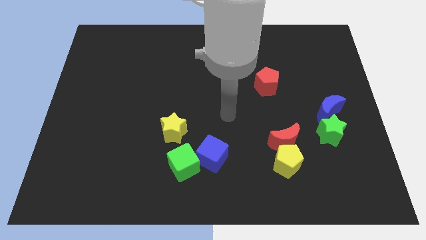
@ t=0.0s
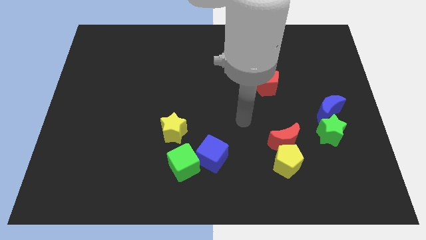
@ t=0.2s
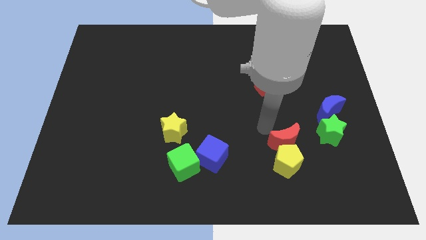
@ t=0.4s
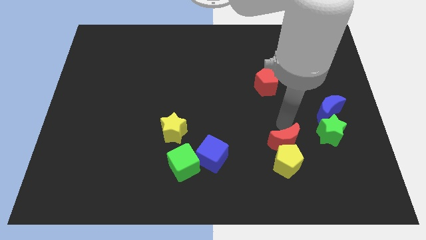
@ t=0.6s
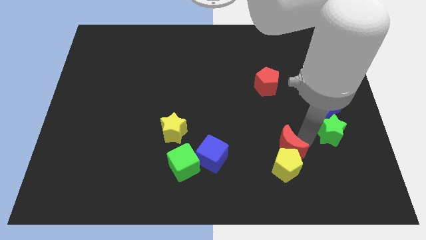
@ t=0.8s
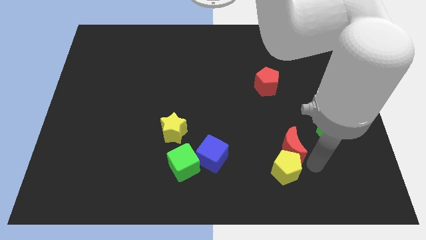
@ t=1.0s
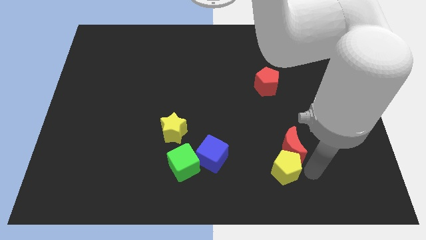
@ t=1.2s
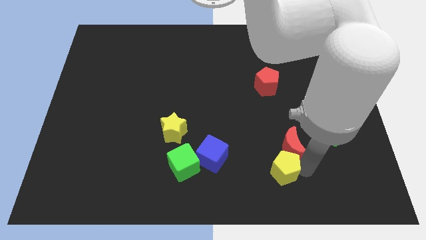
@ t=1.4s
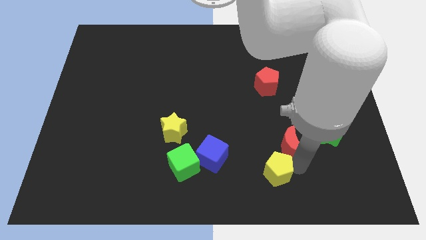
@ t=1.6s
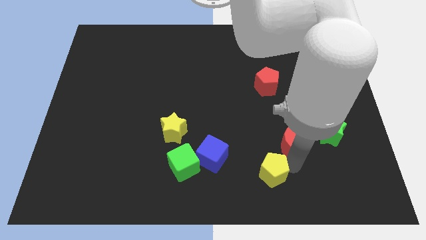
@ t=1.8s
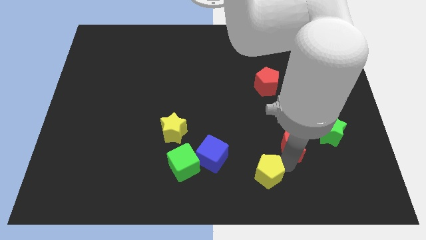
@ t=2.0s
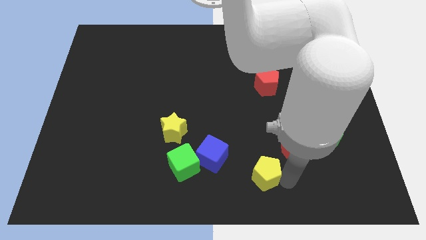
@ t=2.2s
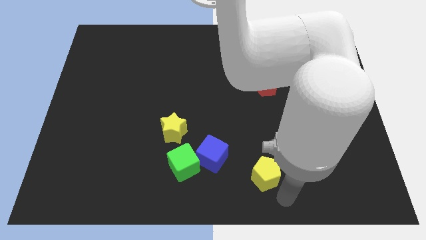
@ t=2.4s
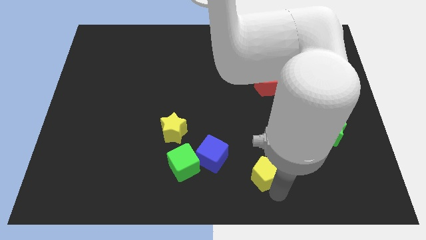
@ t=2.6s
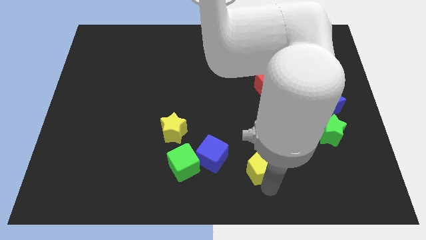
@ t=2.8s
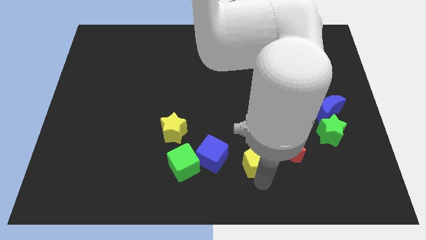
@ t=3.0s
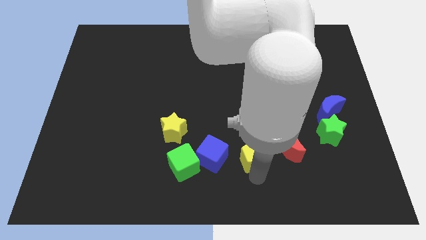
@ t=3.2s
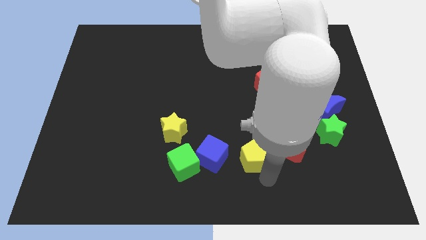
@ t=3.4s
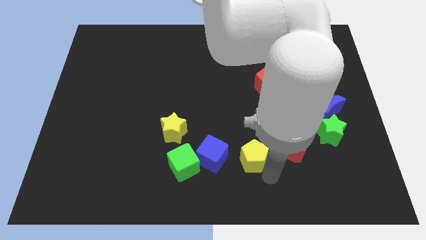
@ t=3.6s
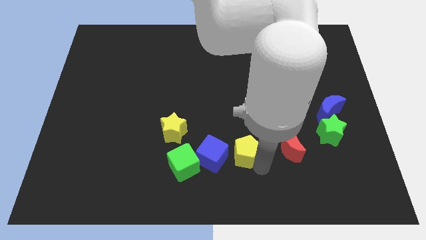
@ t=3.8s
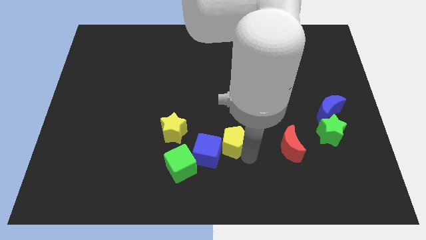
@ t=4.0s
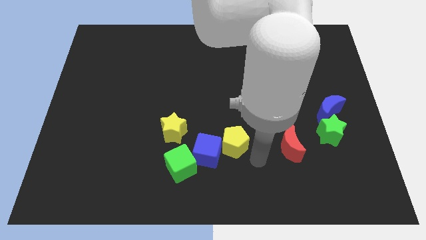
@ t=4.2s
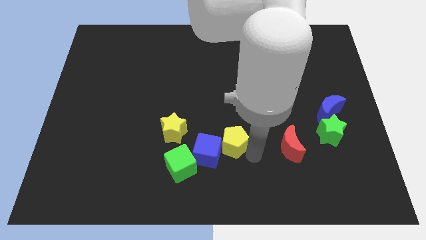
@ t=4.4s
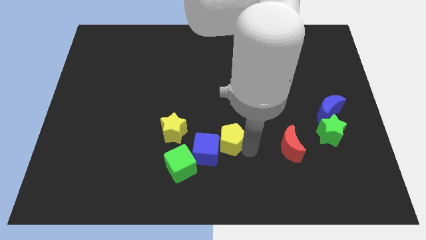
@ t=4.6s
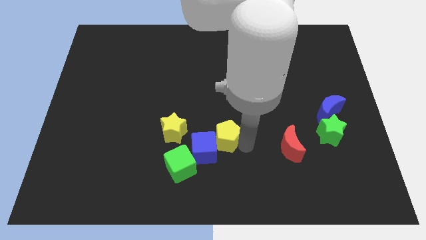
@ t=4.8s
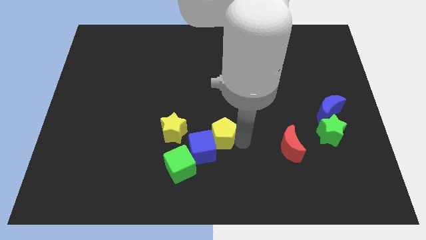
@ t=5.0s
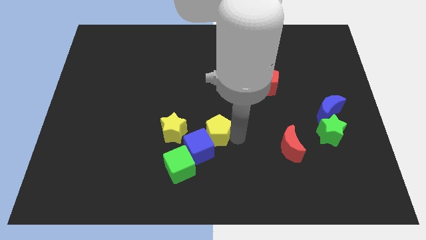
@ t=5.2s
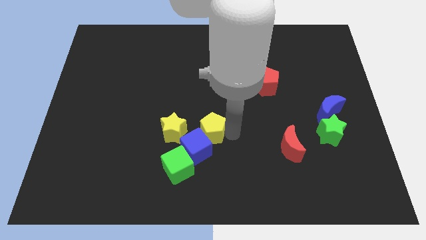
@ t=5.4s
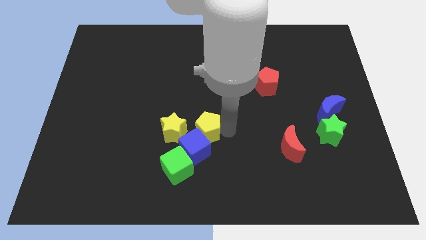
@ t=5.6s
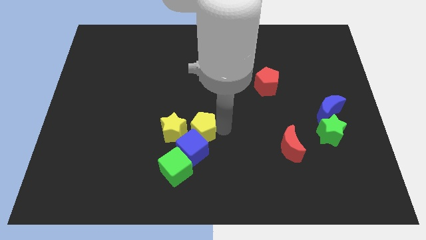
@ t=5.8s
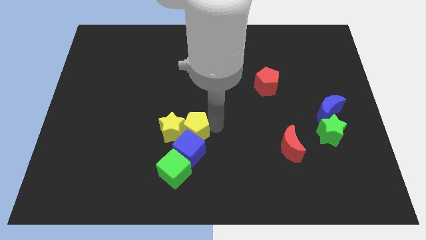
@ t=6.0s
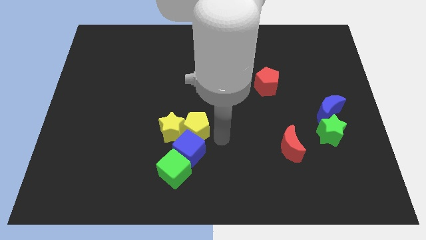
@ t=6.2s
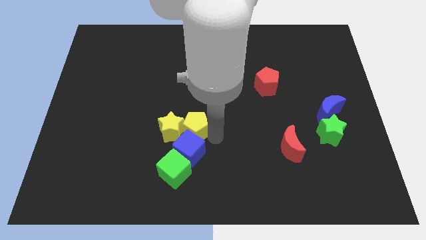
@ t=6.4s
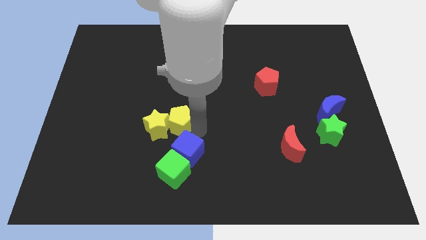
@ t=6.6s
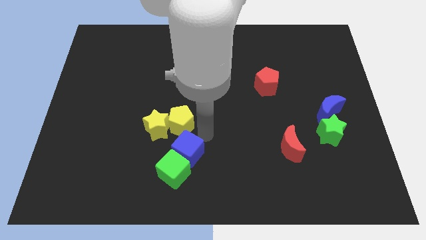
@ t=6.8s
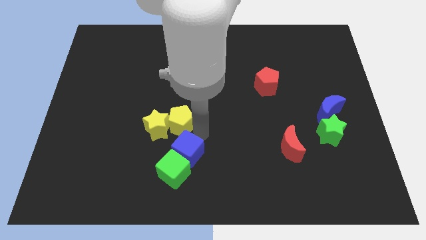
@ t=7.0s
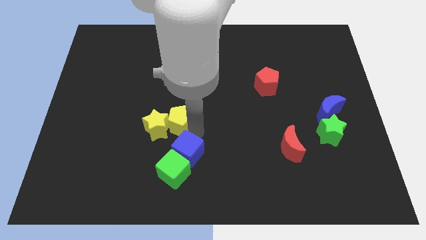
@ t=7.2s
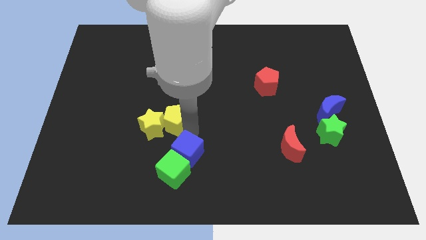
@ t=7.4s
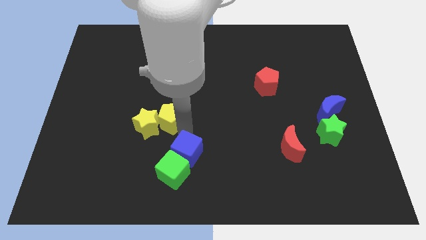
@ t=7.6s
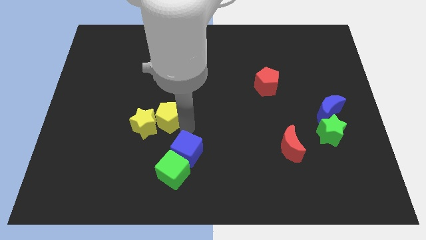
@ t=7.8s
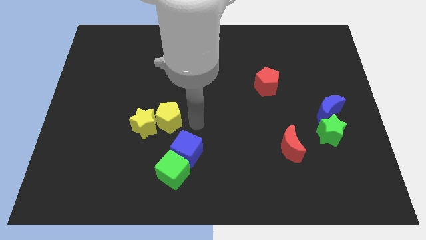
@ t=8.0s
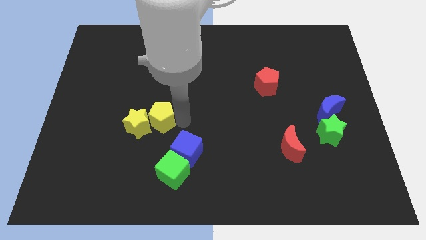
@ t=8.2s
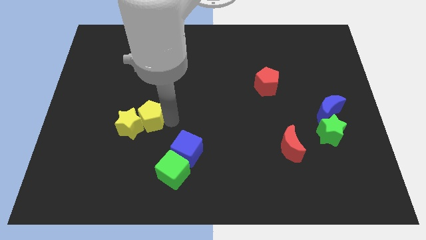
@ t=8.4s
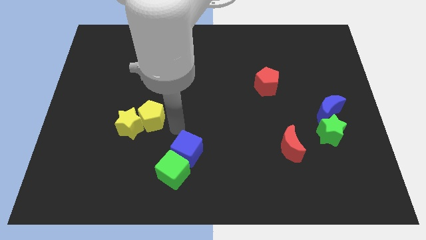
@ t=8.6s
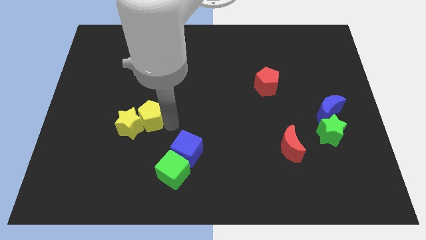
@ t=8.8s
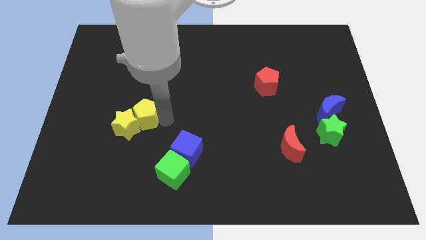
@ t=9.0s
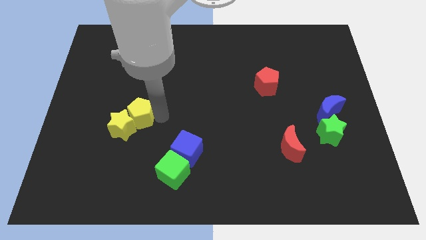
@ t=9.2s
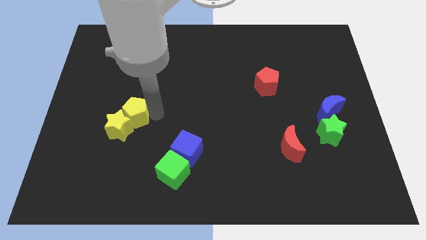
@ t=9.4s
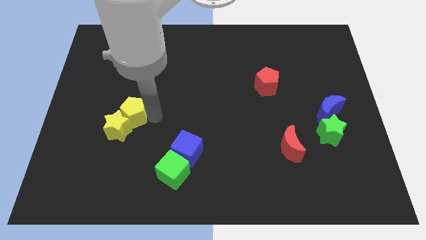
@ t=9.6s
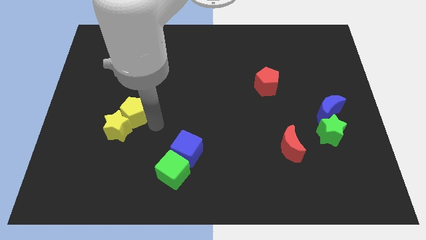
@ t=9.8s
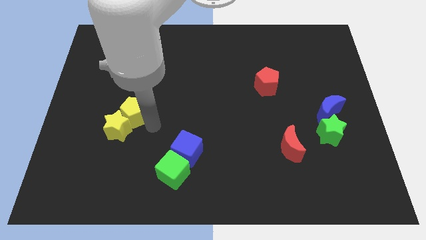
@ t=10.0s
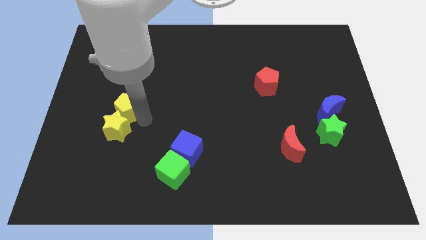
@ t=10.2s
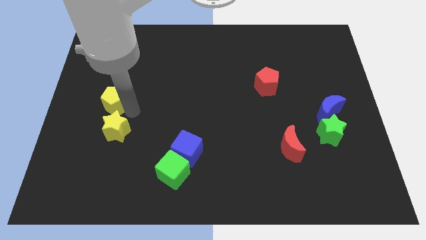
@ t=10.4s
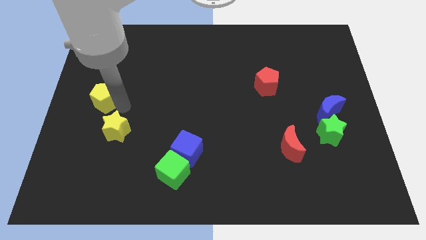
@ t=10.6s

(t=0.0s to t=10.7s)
put the yellow pentagon to the center left

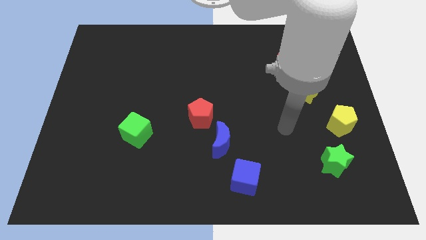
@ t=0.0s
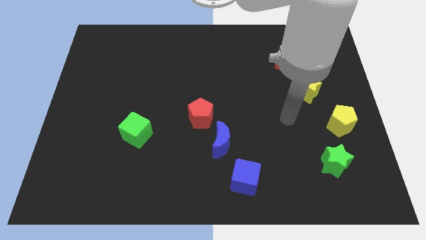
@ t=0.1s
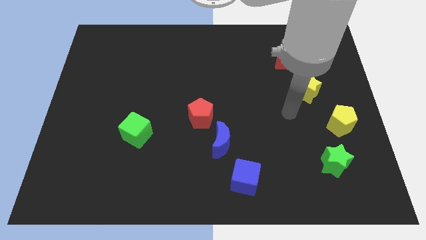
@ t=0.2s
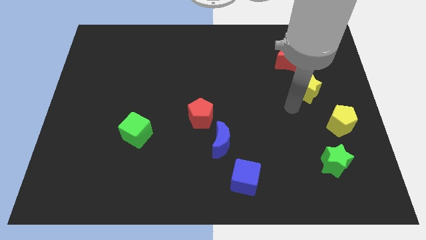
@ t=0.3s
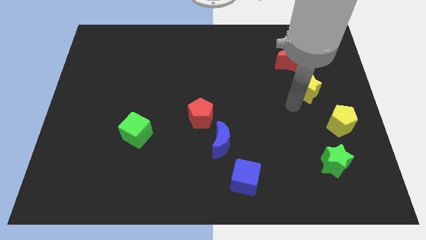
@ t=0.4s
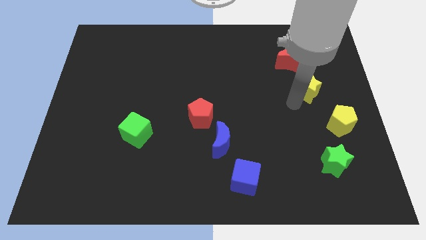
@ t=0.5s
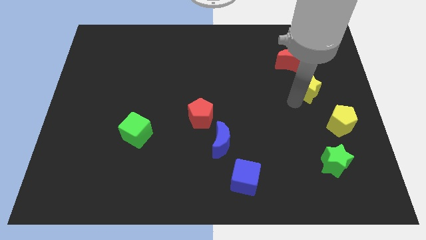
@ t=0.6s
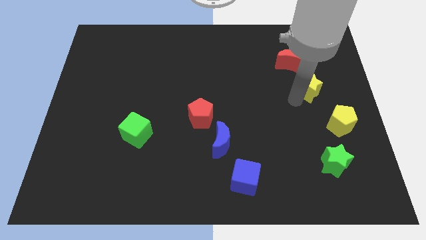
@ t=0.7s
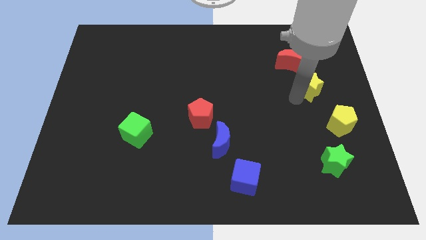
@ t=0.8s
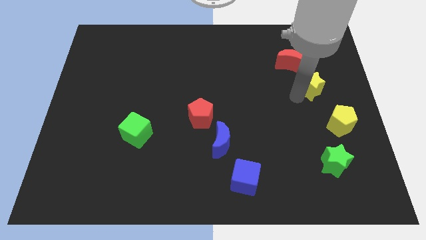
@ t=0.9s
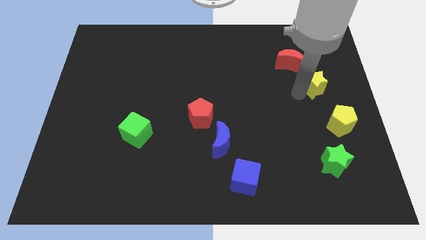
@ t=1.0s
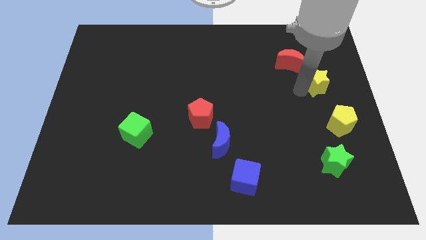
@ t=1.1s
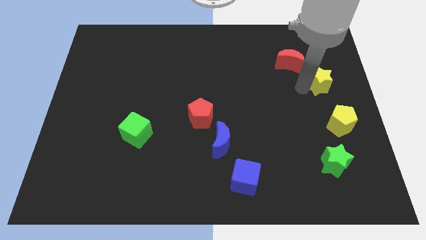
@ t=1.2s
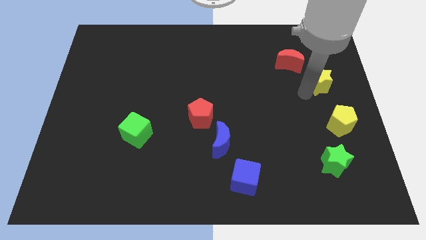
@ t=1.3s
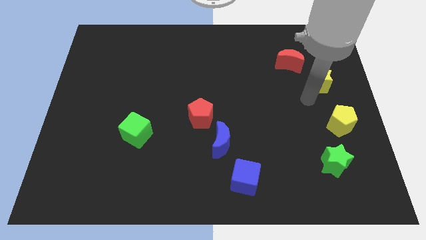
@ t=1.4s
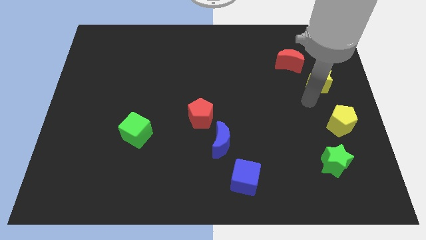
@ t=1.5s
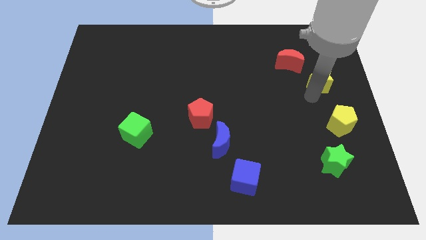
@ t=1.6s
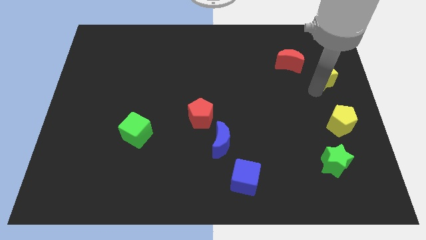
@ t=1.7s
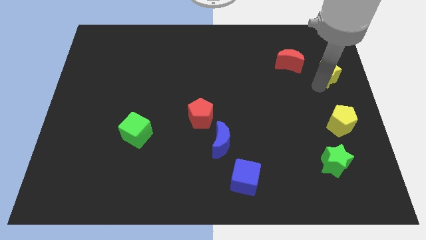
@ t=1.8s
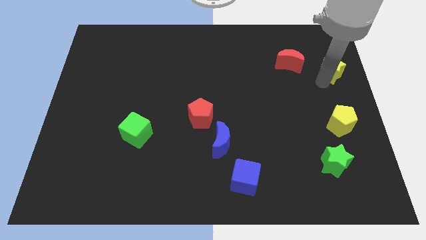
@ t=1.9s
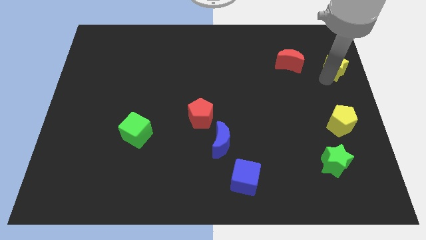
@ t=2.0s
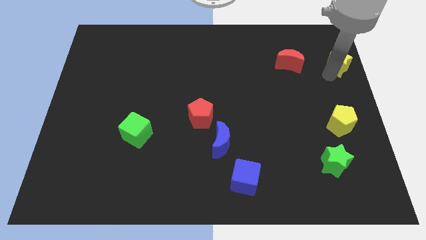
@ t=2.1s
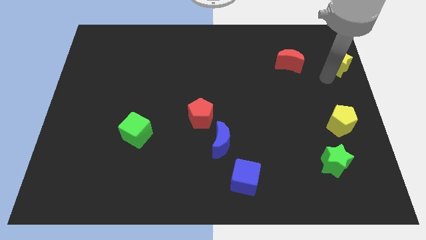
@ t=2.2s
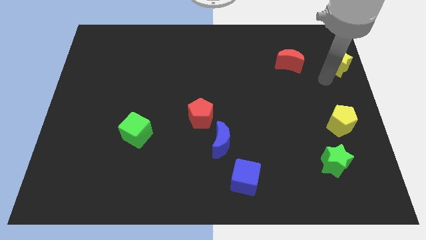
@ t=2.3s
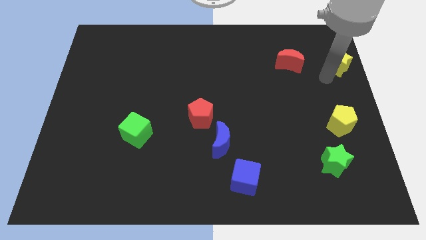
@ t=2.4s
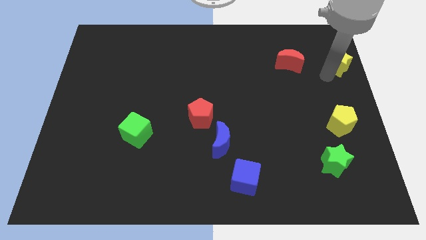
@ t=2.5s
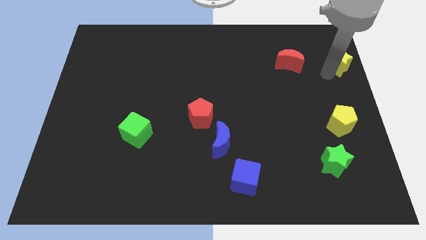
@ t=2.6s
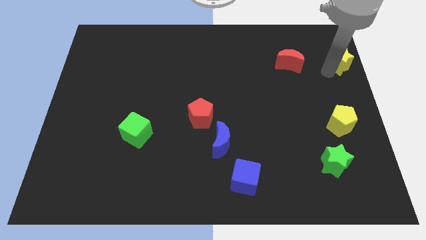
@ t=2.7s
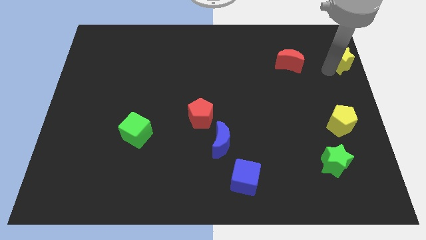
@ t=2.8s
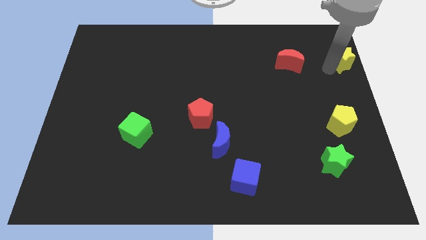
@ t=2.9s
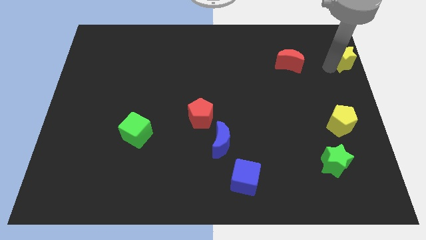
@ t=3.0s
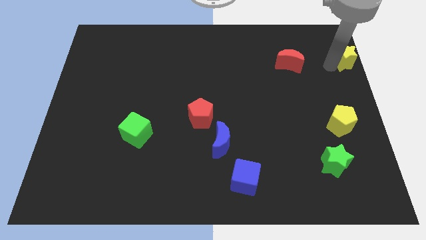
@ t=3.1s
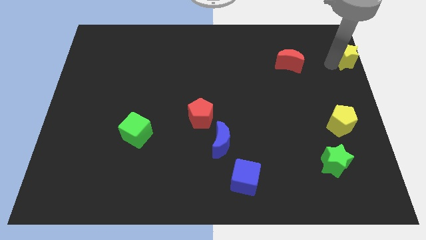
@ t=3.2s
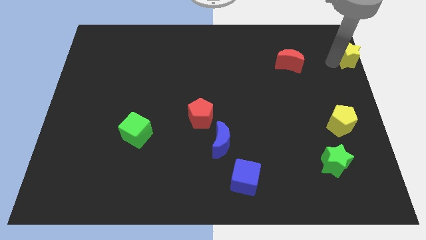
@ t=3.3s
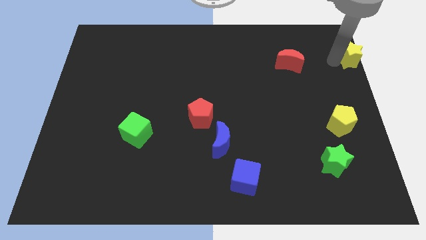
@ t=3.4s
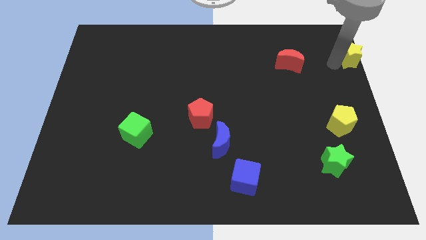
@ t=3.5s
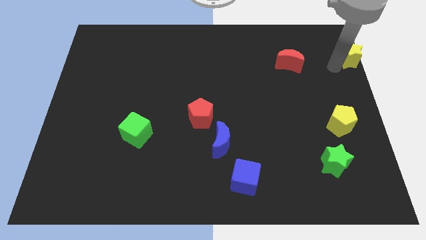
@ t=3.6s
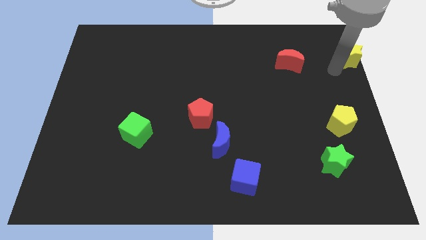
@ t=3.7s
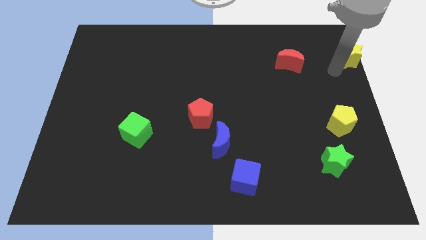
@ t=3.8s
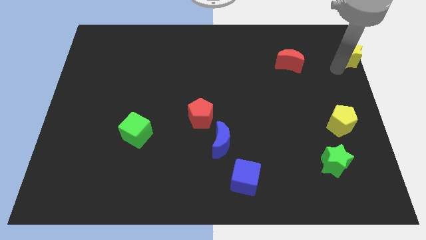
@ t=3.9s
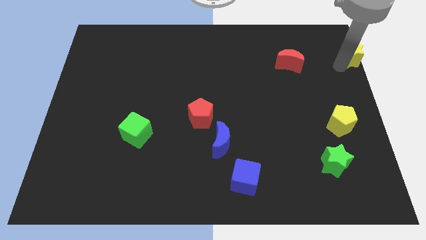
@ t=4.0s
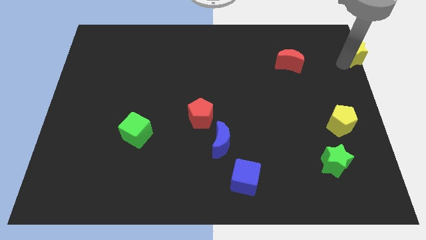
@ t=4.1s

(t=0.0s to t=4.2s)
put the yellow star to the top right corner
